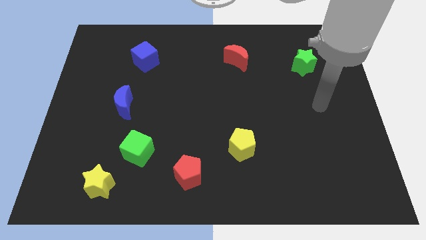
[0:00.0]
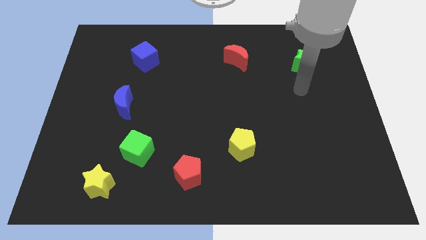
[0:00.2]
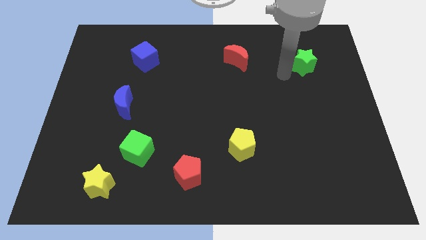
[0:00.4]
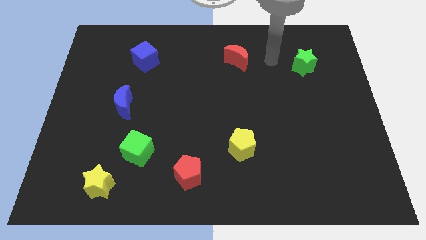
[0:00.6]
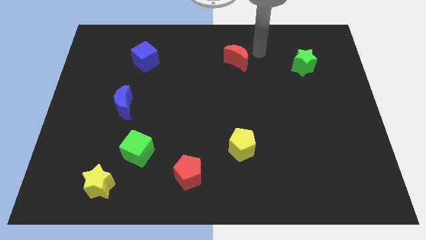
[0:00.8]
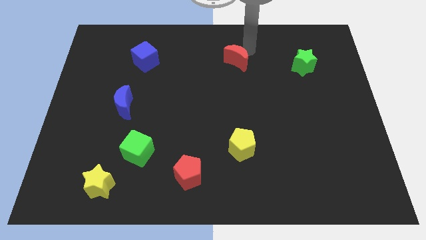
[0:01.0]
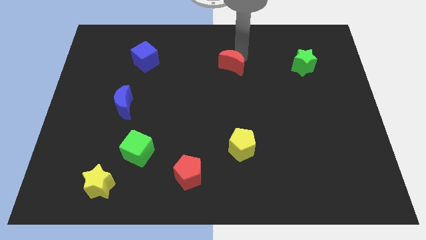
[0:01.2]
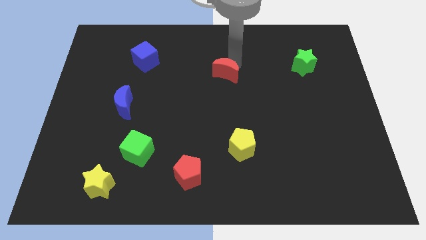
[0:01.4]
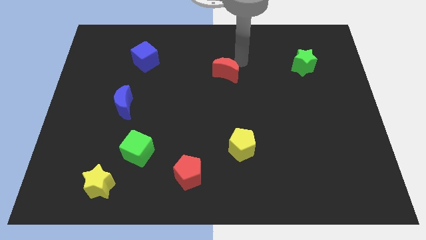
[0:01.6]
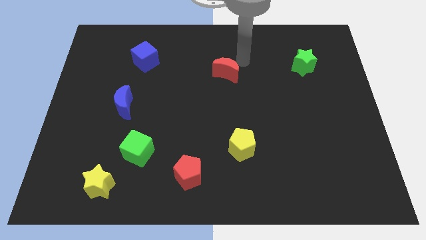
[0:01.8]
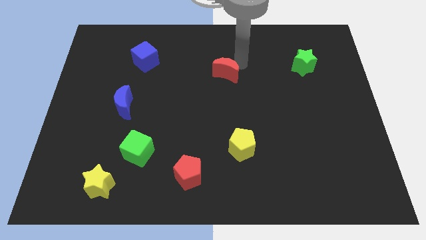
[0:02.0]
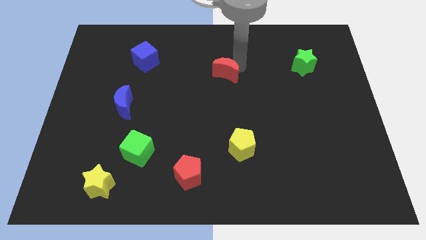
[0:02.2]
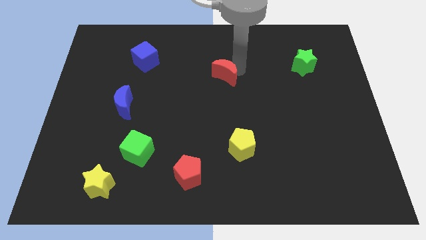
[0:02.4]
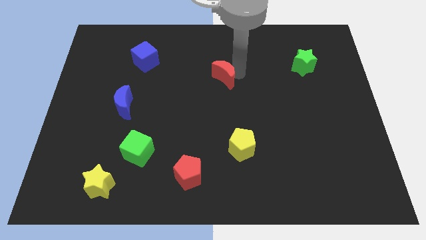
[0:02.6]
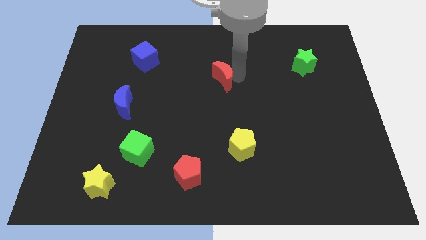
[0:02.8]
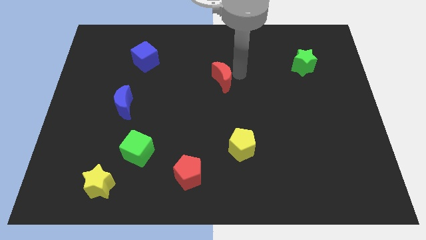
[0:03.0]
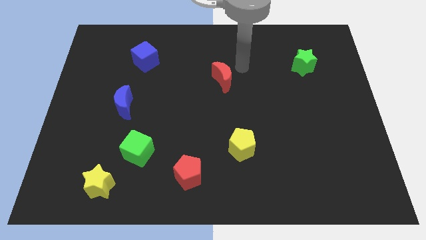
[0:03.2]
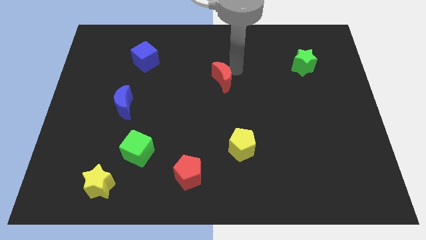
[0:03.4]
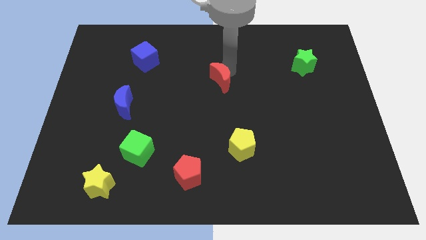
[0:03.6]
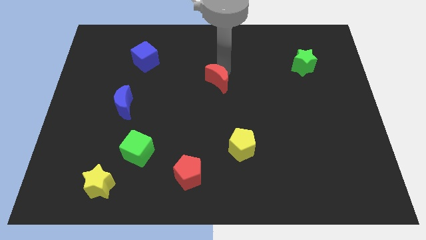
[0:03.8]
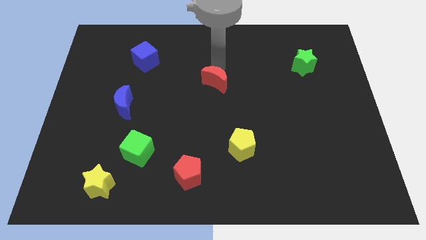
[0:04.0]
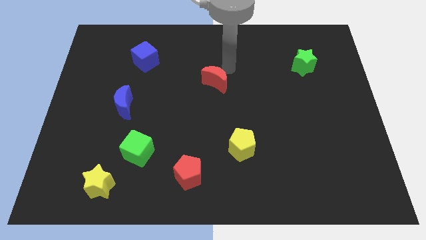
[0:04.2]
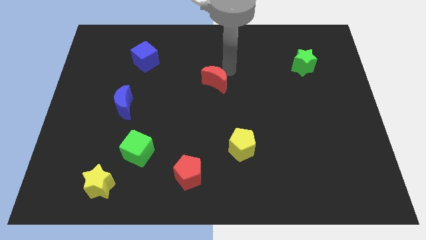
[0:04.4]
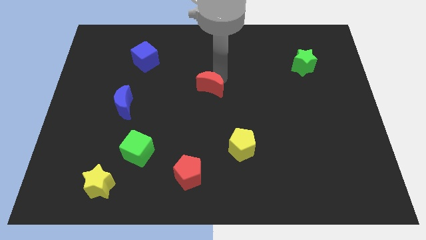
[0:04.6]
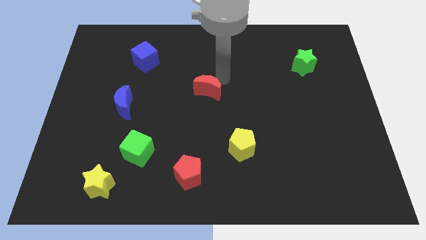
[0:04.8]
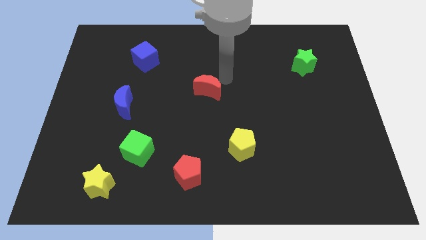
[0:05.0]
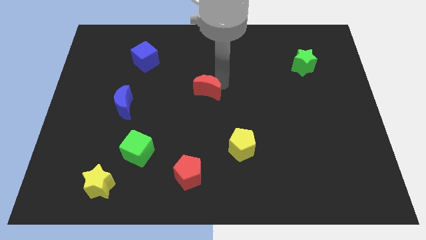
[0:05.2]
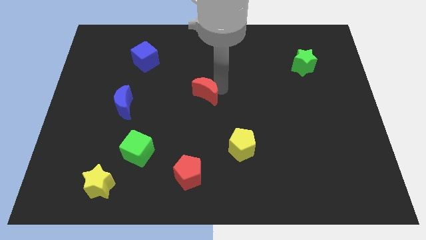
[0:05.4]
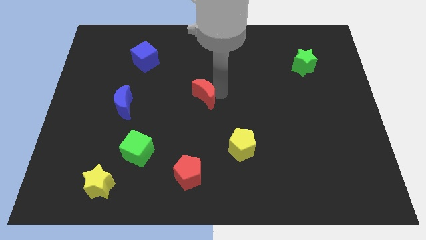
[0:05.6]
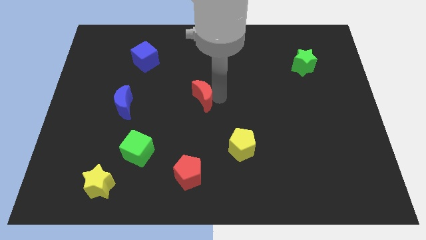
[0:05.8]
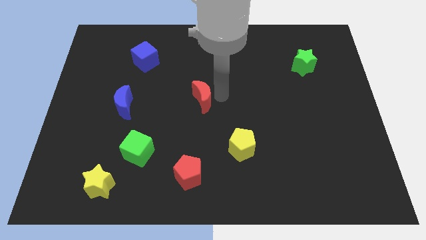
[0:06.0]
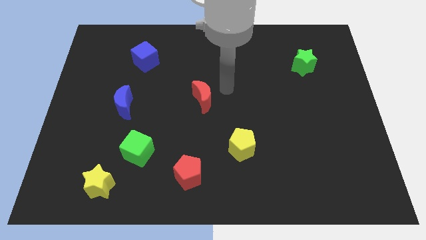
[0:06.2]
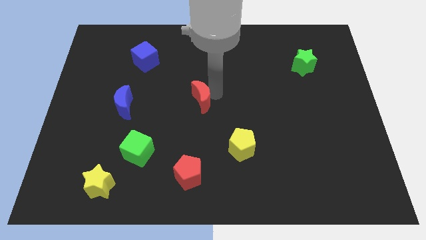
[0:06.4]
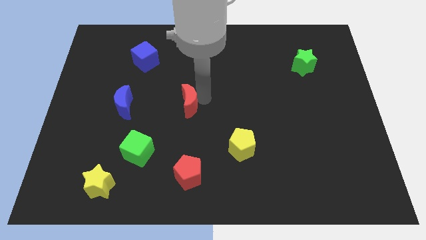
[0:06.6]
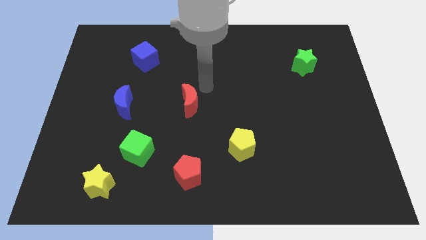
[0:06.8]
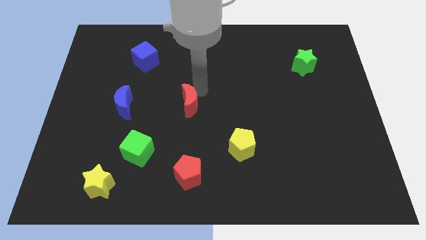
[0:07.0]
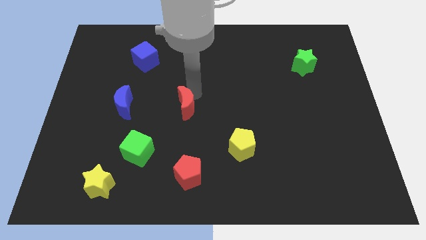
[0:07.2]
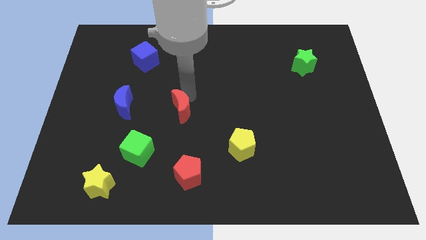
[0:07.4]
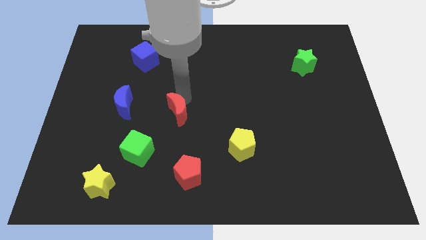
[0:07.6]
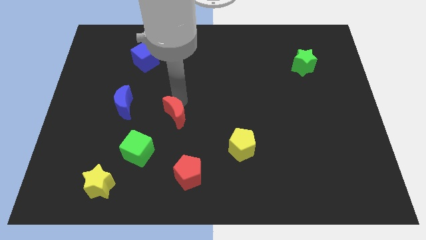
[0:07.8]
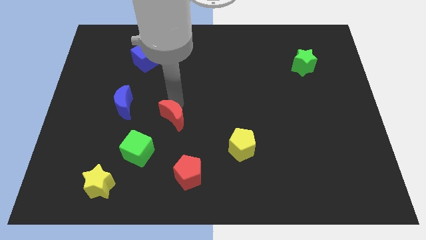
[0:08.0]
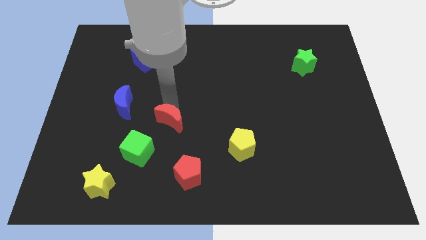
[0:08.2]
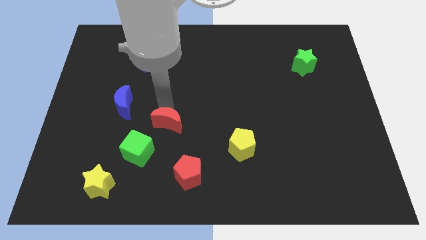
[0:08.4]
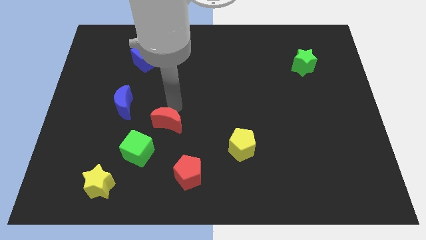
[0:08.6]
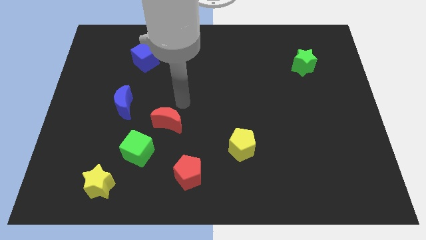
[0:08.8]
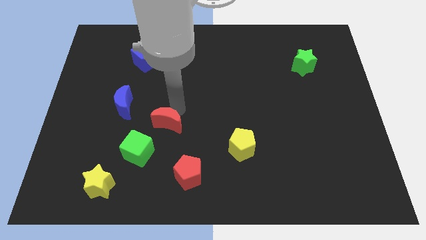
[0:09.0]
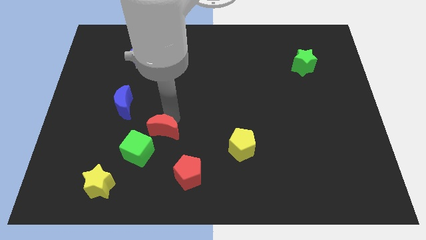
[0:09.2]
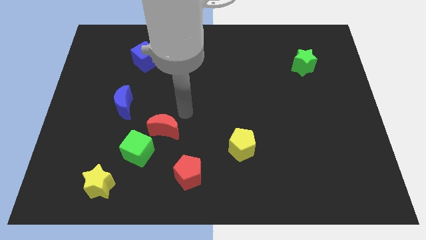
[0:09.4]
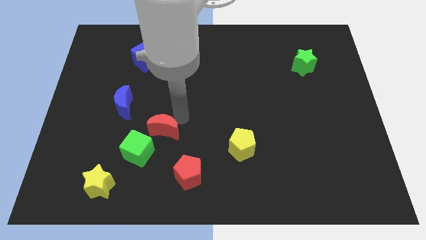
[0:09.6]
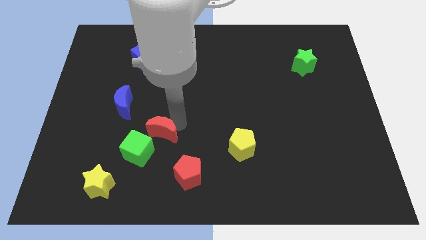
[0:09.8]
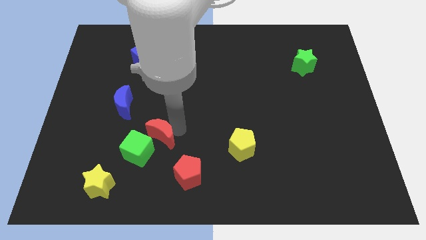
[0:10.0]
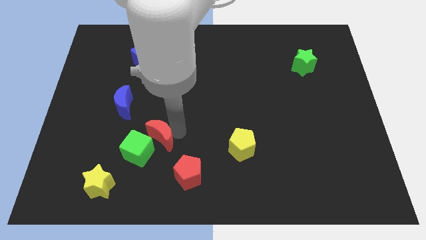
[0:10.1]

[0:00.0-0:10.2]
push the red moon towards the green cube

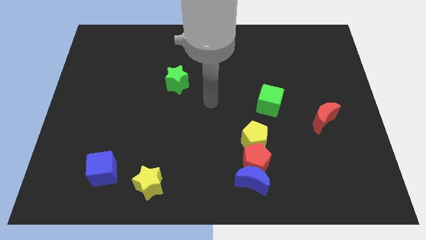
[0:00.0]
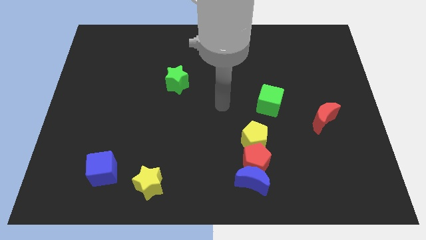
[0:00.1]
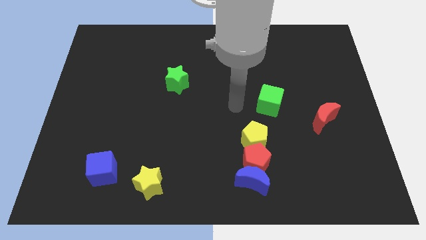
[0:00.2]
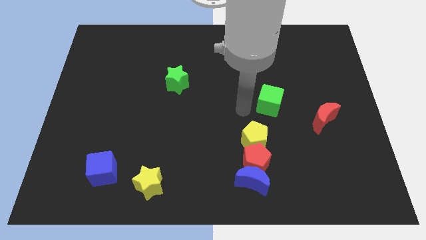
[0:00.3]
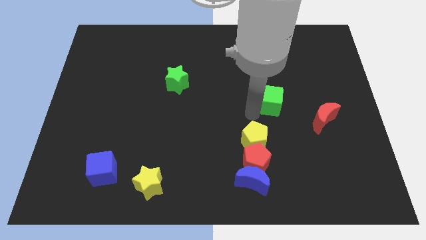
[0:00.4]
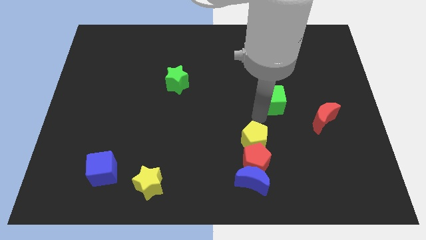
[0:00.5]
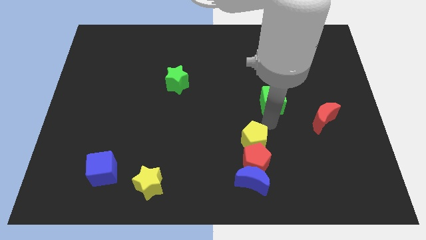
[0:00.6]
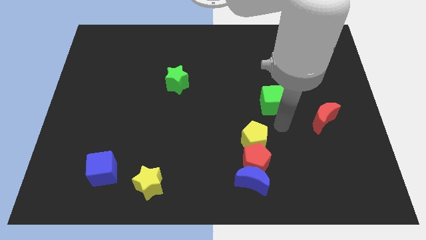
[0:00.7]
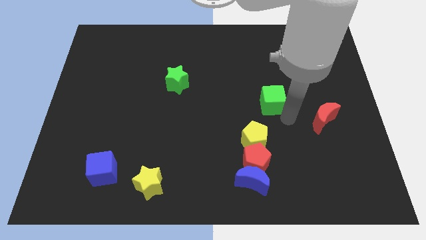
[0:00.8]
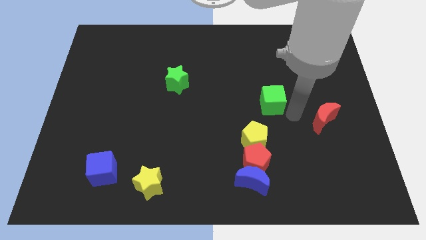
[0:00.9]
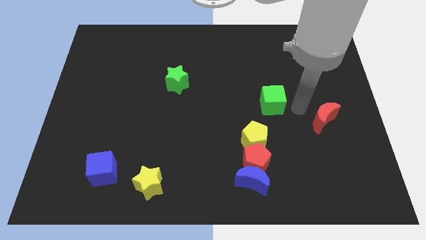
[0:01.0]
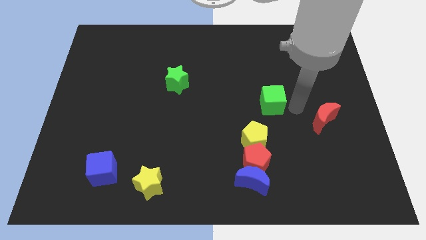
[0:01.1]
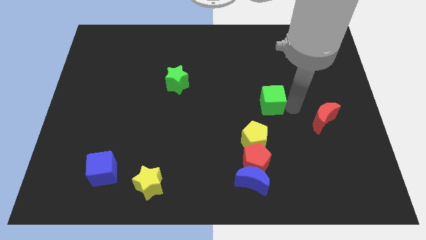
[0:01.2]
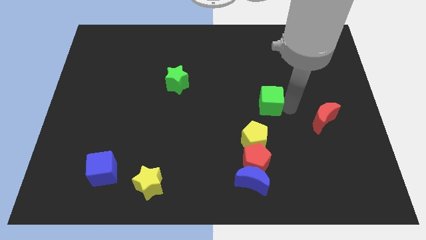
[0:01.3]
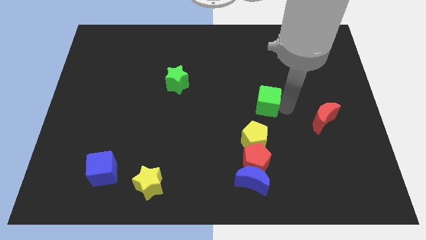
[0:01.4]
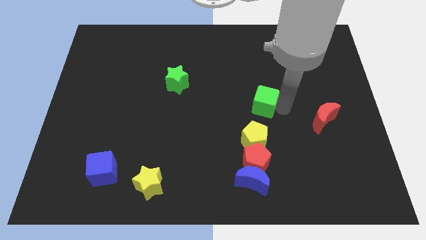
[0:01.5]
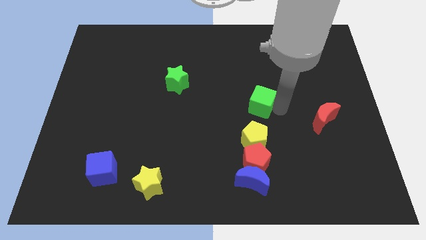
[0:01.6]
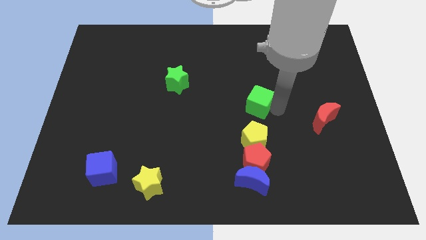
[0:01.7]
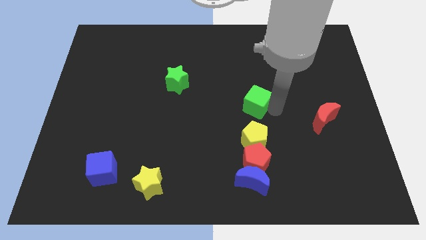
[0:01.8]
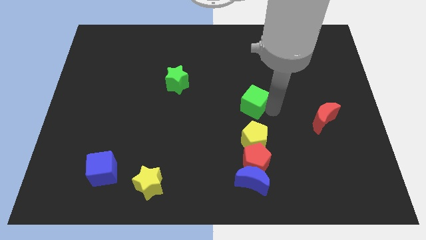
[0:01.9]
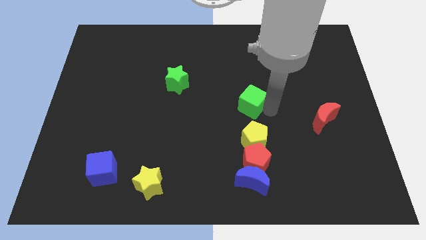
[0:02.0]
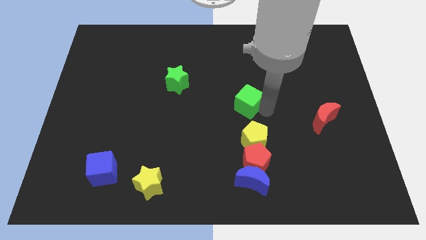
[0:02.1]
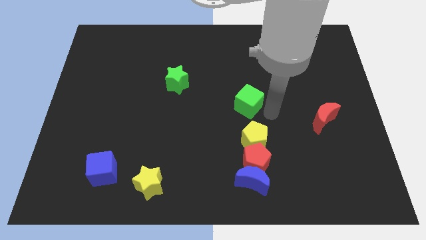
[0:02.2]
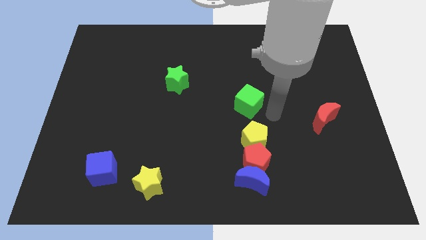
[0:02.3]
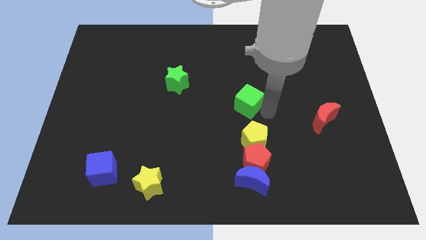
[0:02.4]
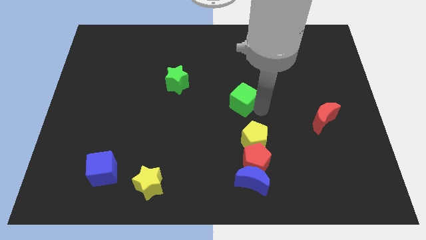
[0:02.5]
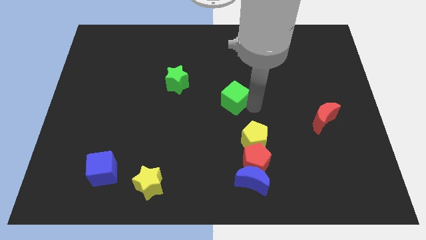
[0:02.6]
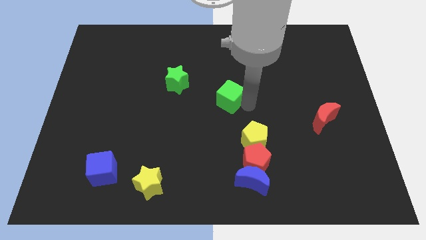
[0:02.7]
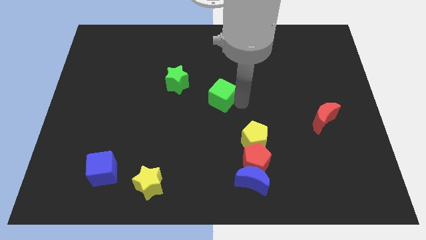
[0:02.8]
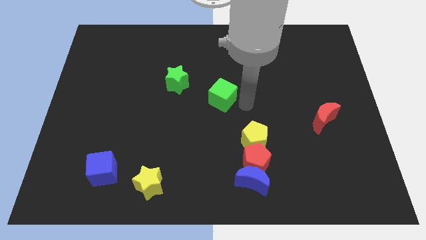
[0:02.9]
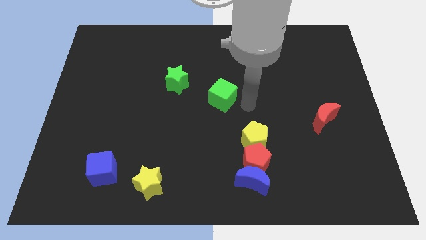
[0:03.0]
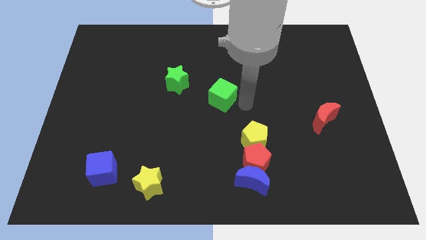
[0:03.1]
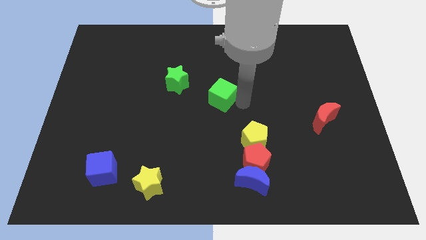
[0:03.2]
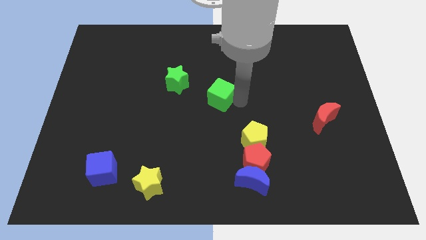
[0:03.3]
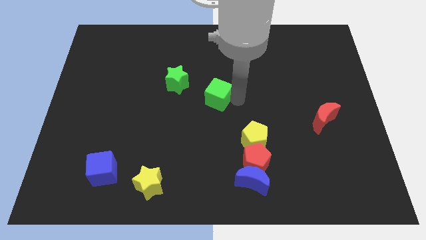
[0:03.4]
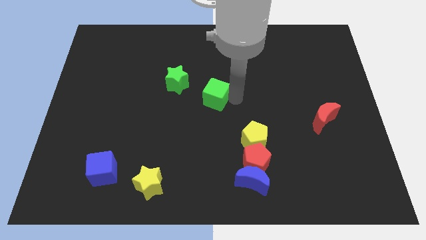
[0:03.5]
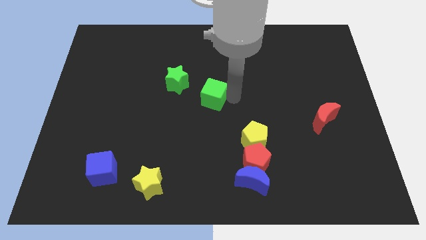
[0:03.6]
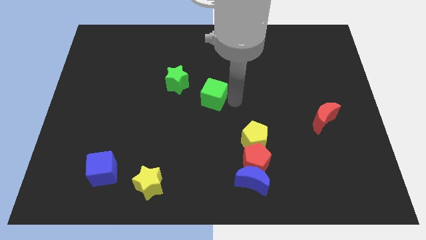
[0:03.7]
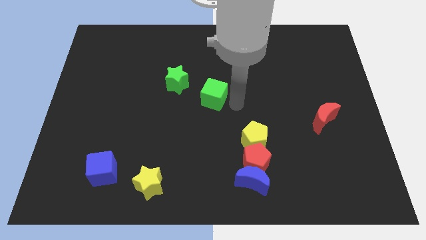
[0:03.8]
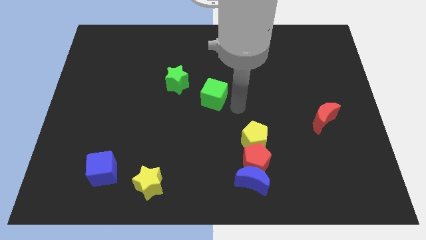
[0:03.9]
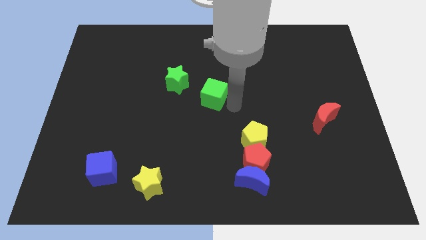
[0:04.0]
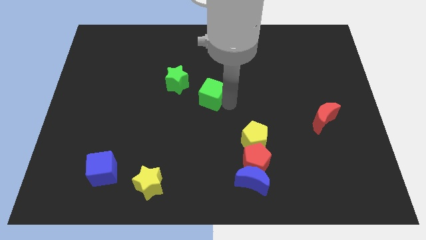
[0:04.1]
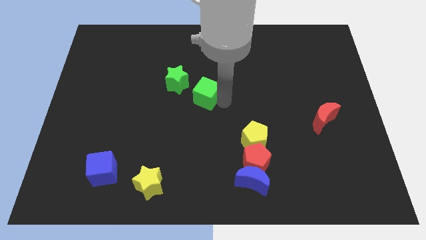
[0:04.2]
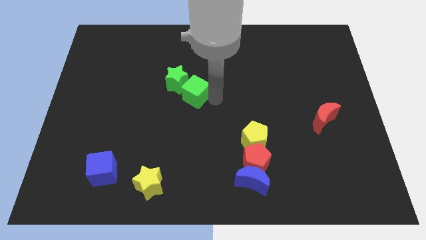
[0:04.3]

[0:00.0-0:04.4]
put the green cube next to the green star
